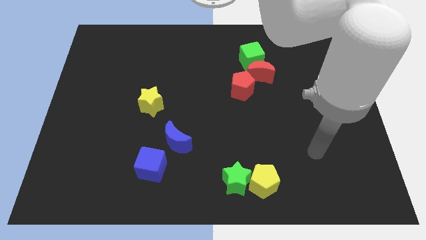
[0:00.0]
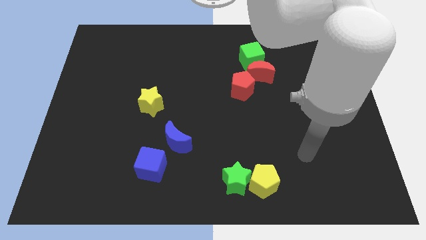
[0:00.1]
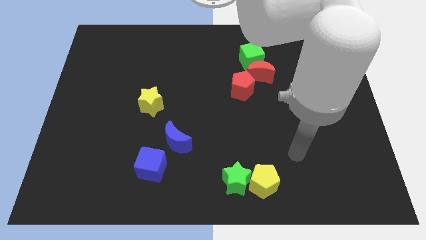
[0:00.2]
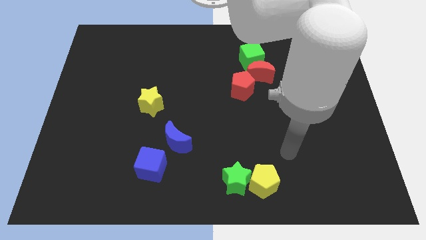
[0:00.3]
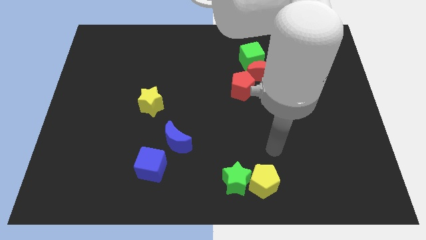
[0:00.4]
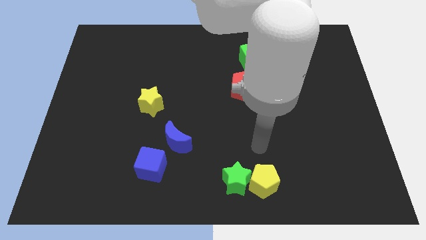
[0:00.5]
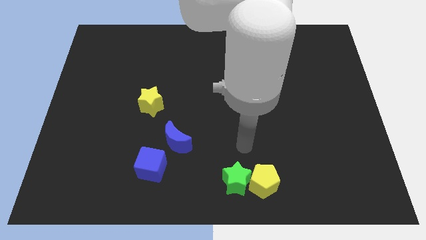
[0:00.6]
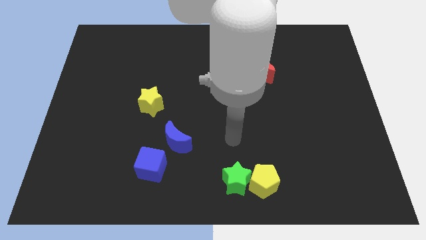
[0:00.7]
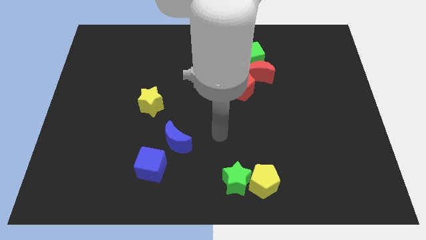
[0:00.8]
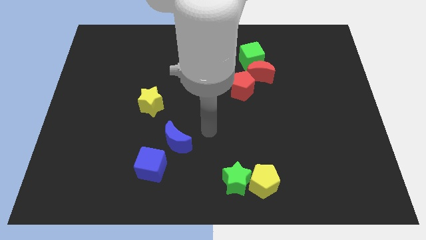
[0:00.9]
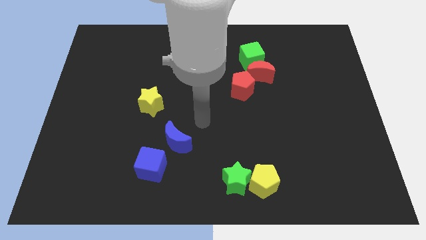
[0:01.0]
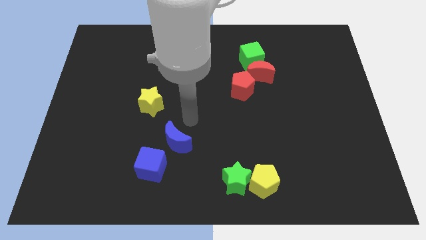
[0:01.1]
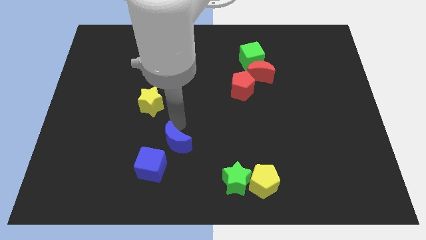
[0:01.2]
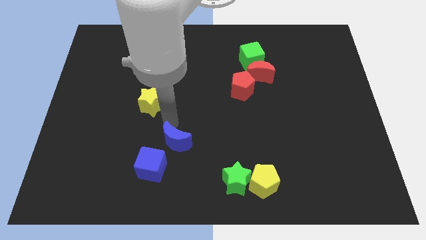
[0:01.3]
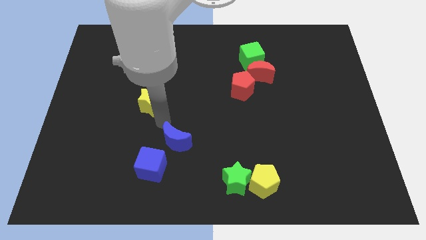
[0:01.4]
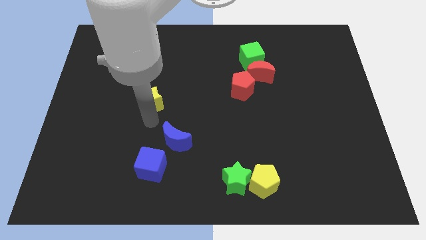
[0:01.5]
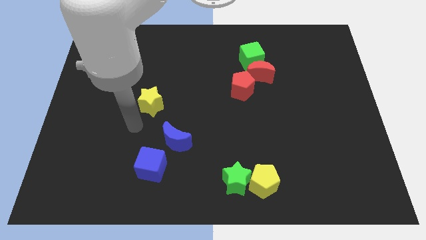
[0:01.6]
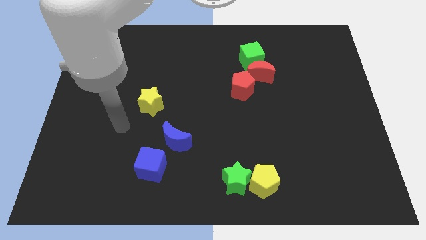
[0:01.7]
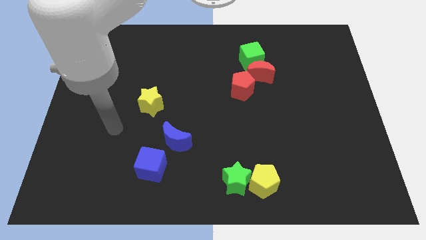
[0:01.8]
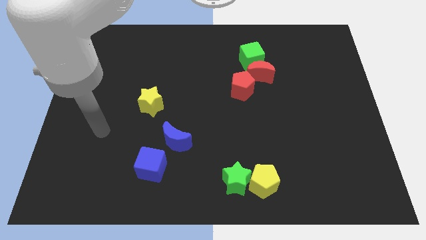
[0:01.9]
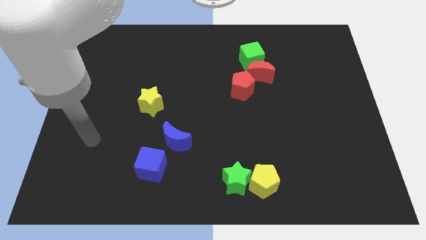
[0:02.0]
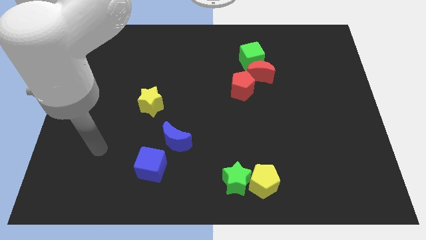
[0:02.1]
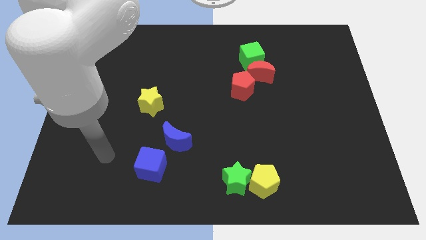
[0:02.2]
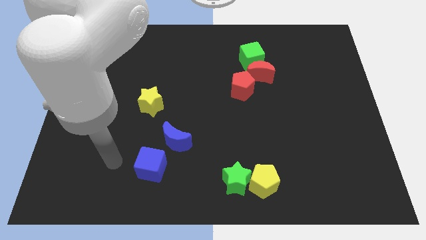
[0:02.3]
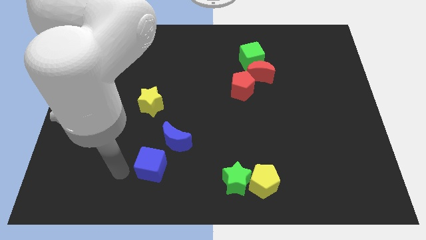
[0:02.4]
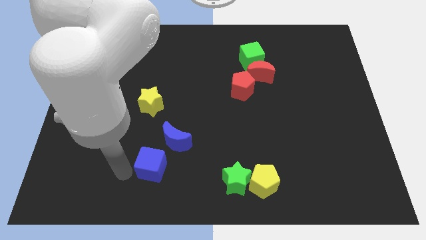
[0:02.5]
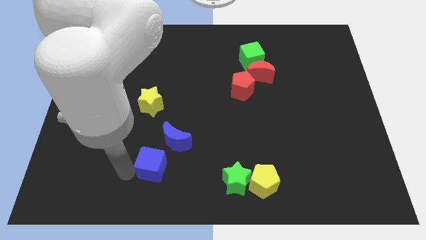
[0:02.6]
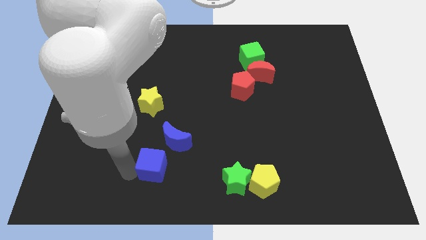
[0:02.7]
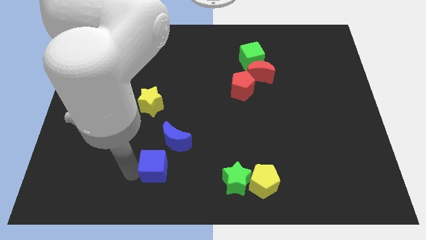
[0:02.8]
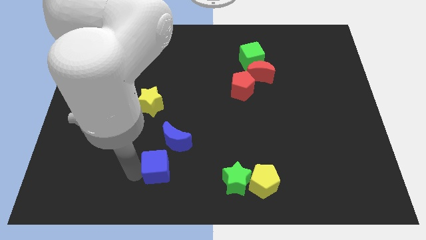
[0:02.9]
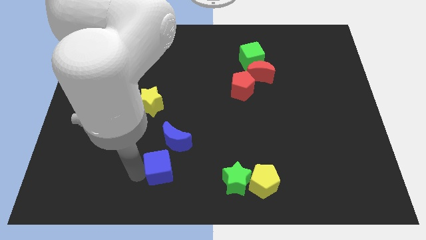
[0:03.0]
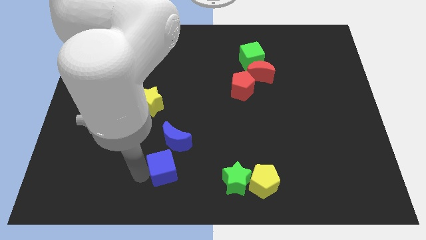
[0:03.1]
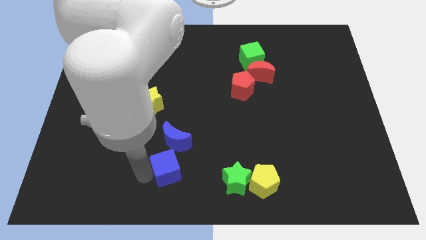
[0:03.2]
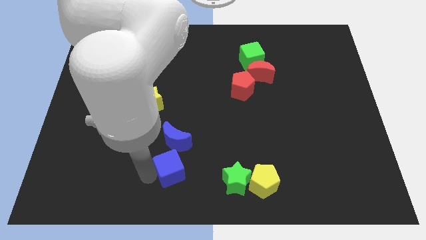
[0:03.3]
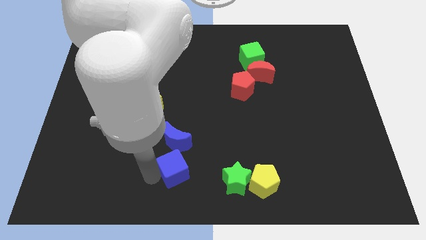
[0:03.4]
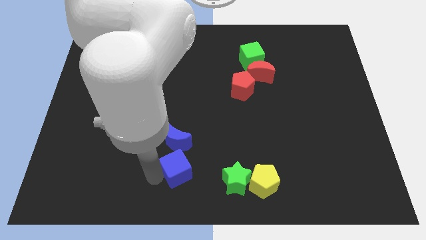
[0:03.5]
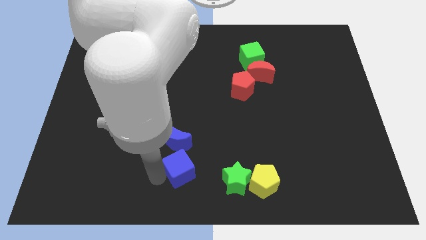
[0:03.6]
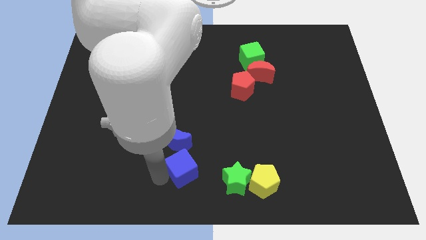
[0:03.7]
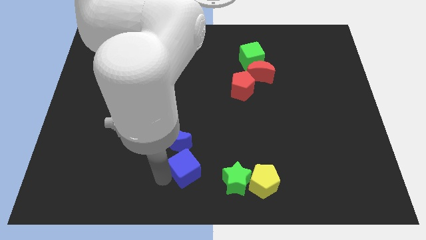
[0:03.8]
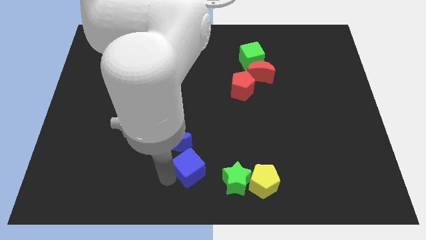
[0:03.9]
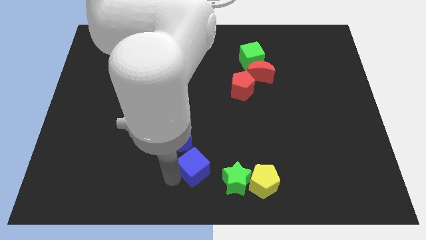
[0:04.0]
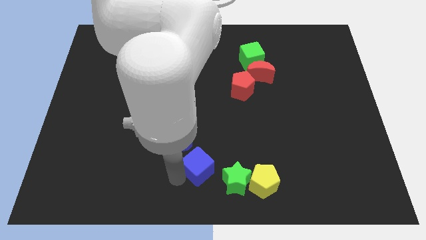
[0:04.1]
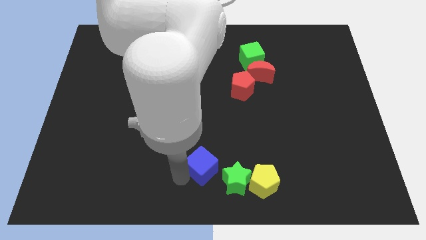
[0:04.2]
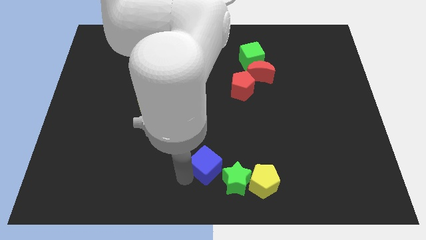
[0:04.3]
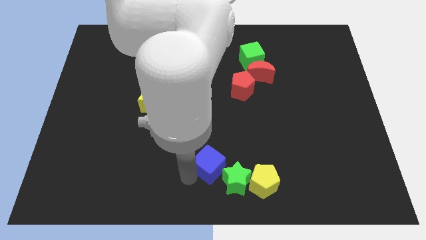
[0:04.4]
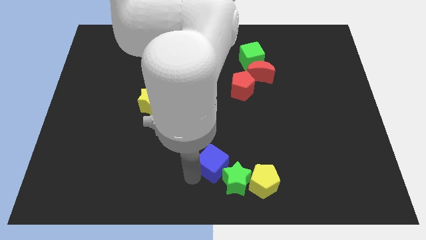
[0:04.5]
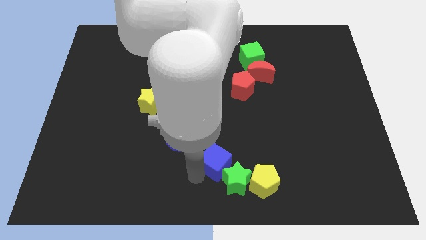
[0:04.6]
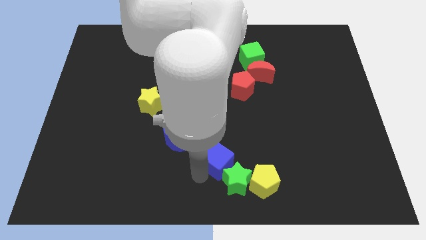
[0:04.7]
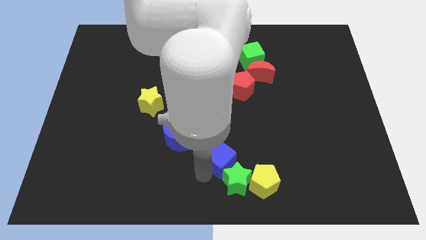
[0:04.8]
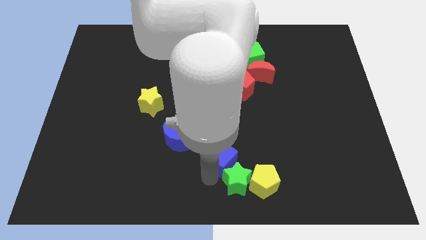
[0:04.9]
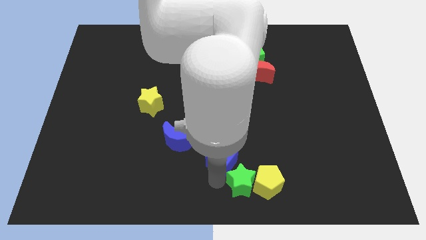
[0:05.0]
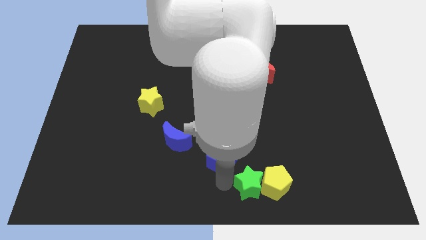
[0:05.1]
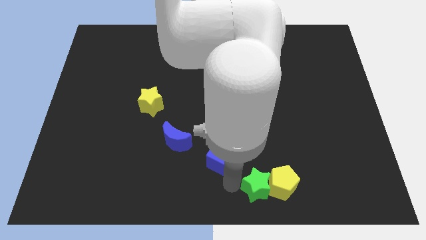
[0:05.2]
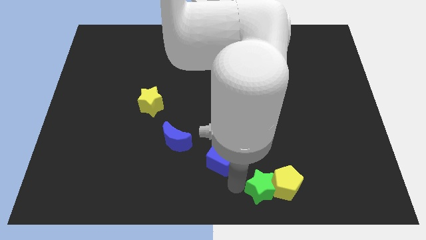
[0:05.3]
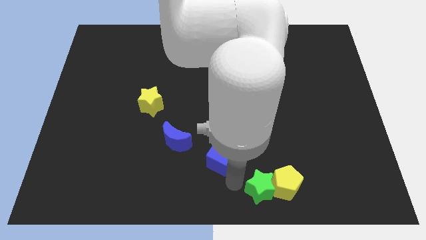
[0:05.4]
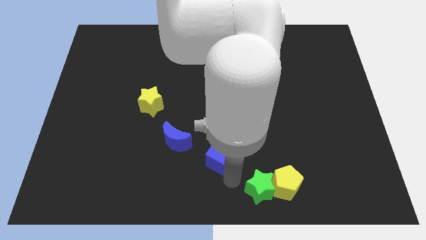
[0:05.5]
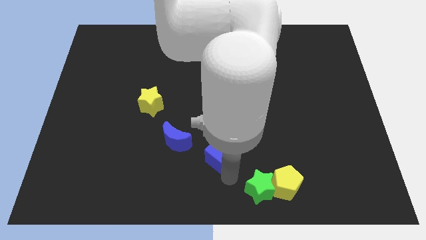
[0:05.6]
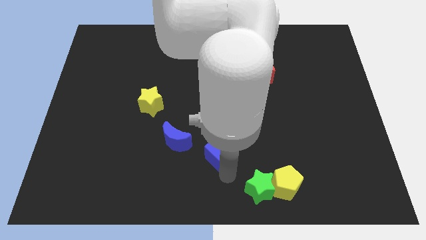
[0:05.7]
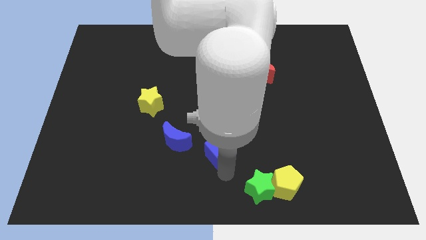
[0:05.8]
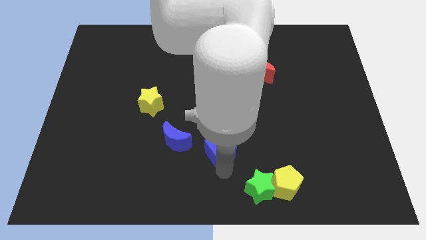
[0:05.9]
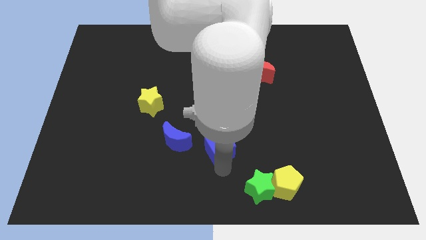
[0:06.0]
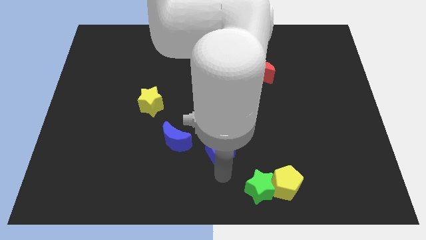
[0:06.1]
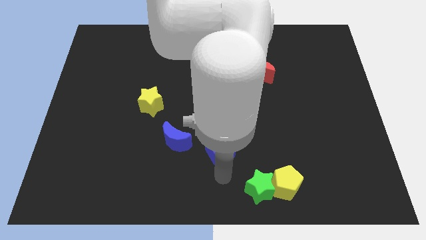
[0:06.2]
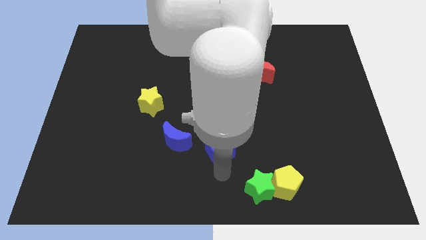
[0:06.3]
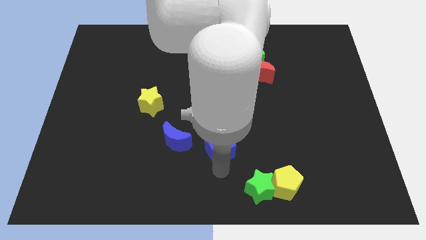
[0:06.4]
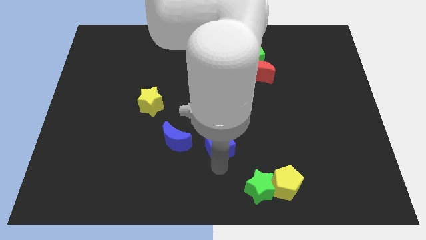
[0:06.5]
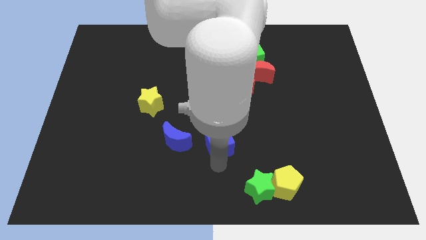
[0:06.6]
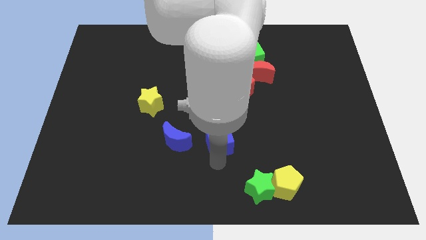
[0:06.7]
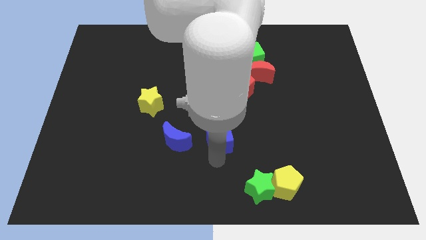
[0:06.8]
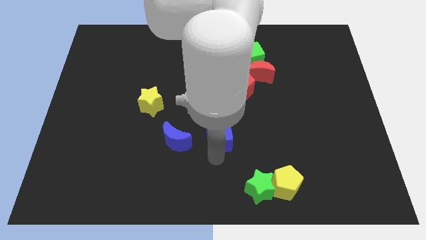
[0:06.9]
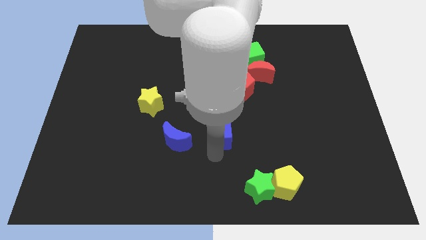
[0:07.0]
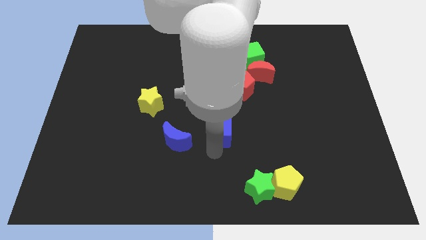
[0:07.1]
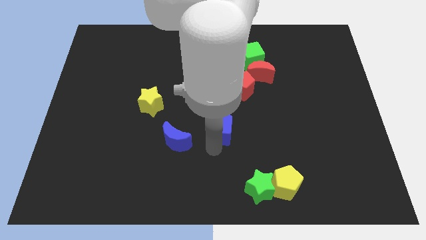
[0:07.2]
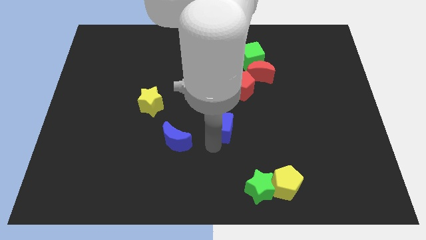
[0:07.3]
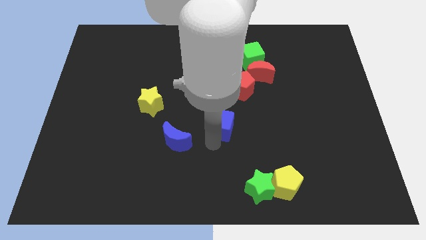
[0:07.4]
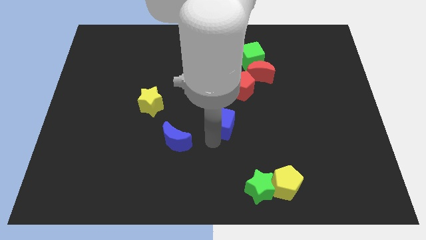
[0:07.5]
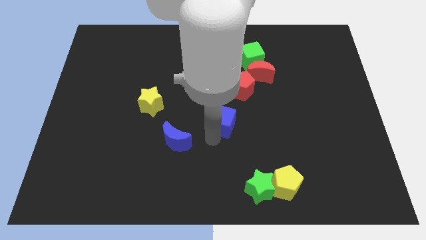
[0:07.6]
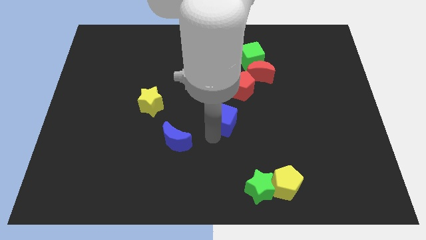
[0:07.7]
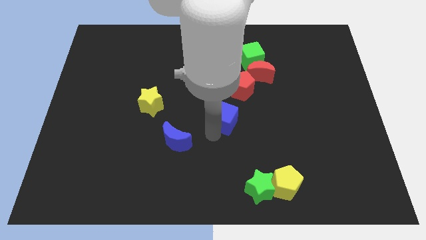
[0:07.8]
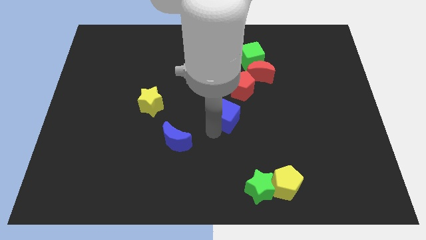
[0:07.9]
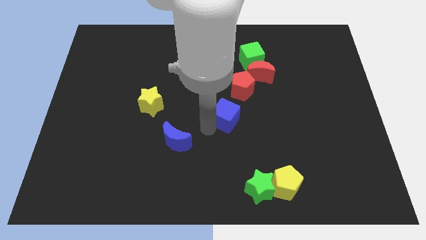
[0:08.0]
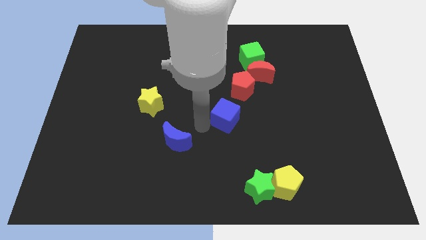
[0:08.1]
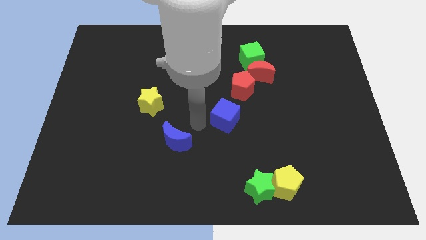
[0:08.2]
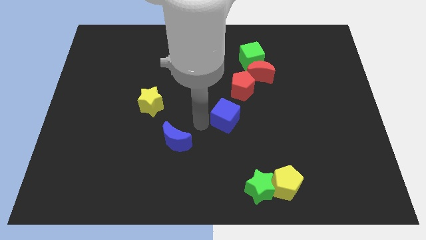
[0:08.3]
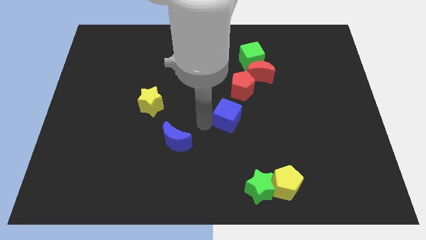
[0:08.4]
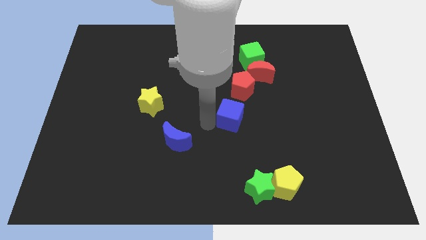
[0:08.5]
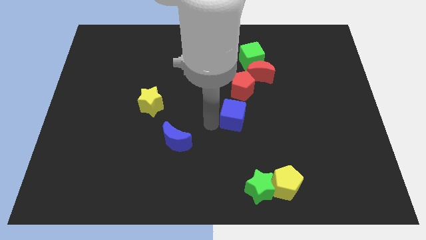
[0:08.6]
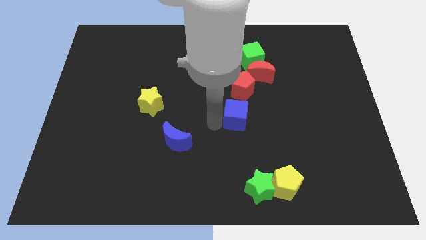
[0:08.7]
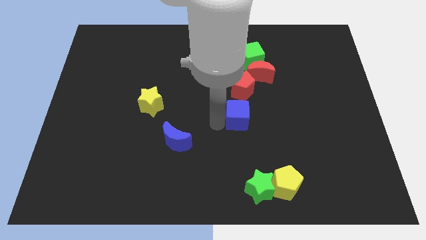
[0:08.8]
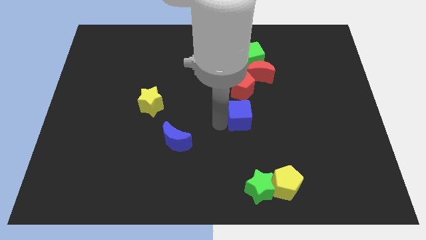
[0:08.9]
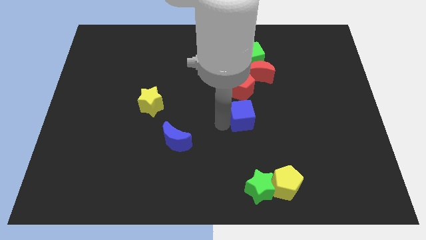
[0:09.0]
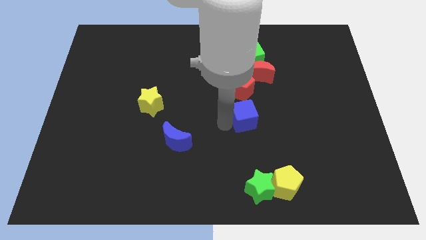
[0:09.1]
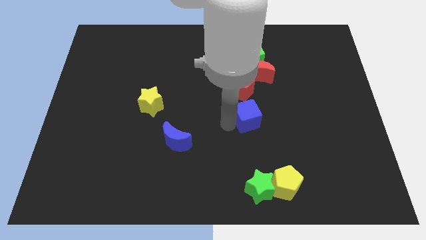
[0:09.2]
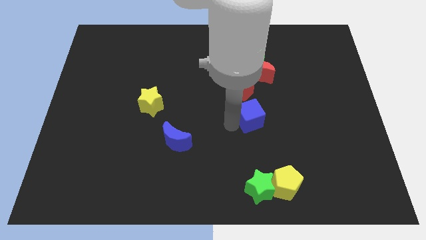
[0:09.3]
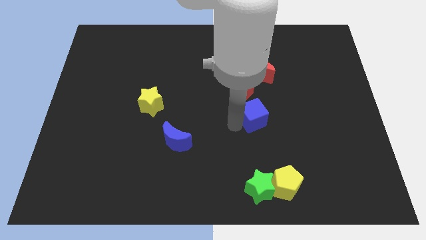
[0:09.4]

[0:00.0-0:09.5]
push the blue cube diagonally down and to the right of the red pentagon
